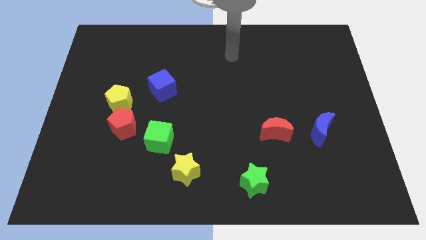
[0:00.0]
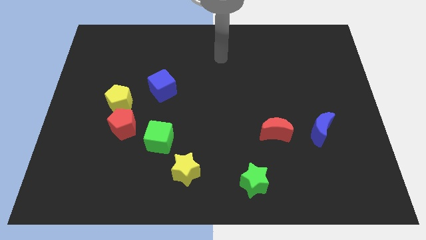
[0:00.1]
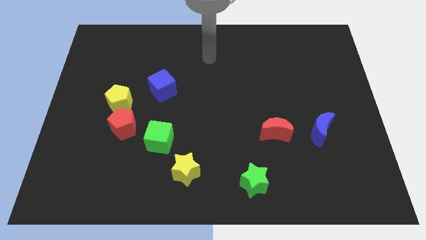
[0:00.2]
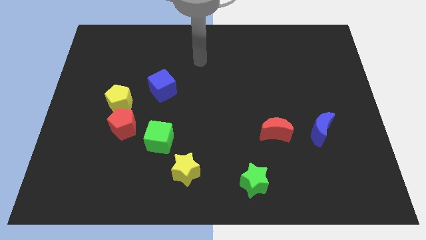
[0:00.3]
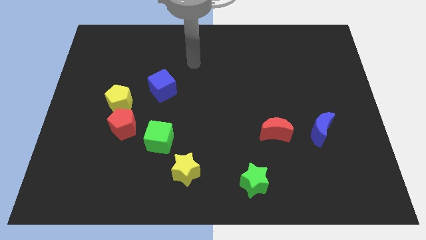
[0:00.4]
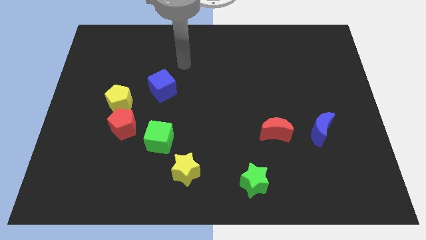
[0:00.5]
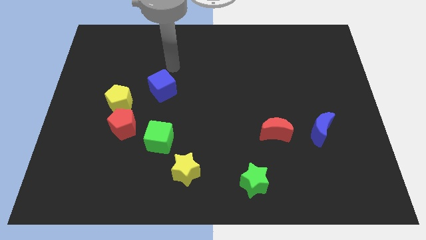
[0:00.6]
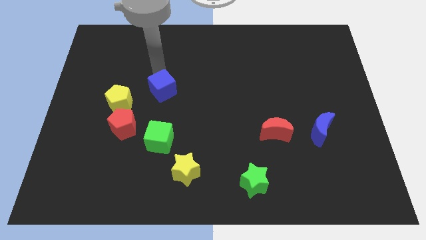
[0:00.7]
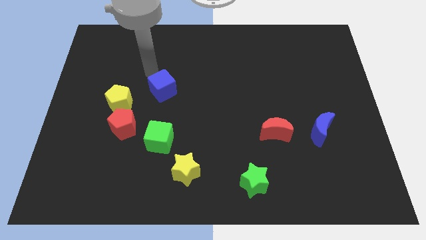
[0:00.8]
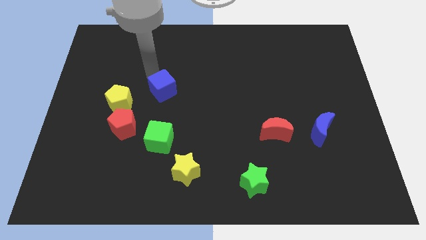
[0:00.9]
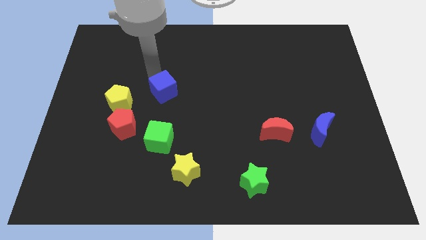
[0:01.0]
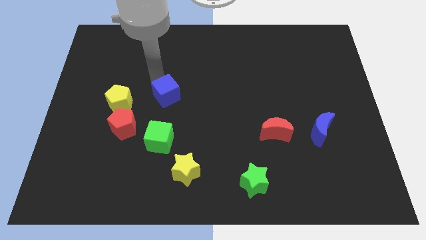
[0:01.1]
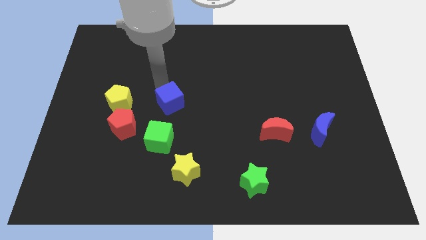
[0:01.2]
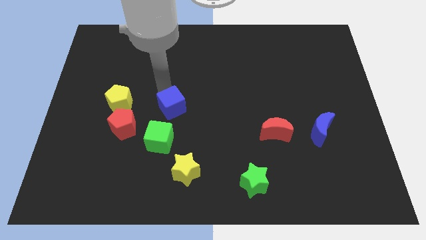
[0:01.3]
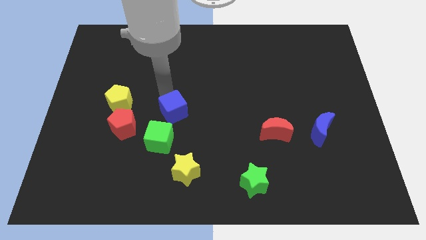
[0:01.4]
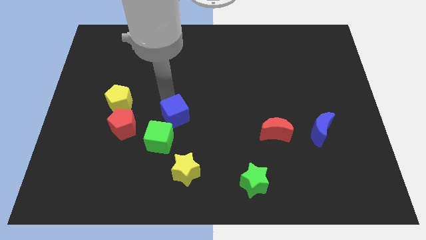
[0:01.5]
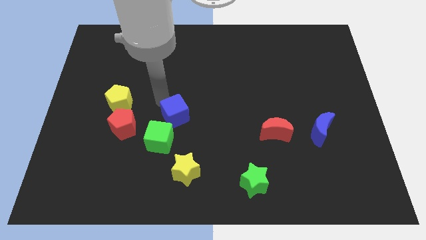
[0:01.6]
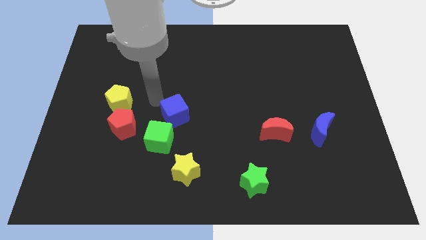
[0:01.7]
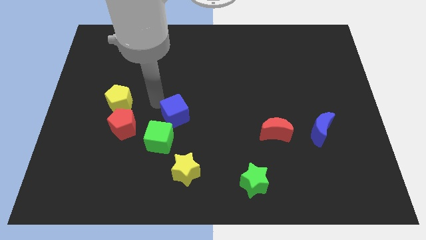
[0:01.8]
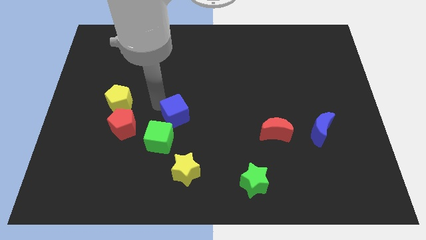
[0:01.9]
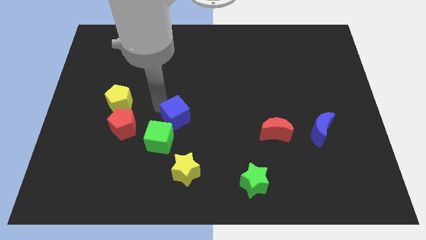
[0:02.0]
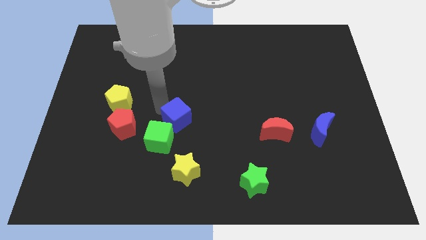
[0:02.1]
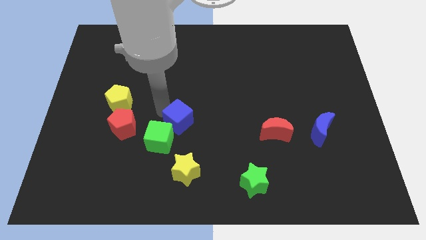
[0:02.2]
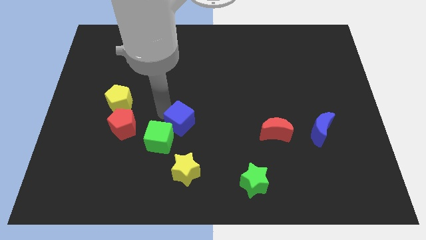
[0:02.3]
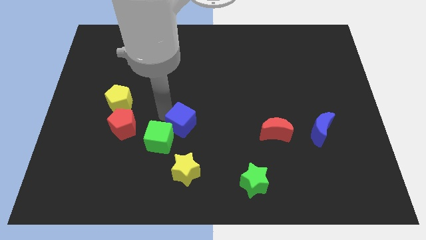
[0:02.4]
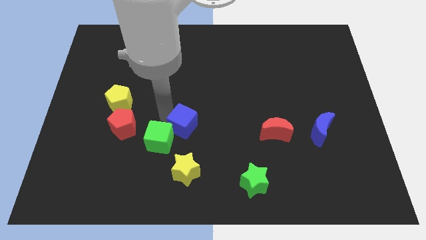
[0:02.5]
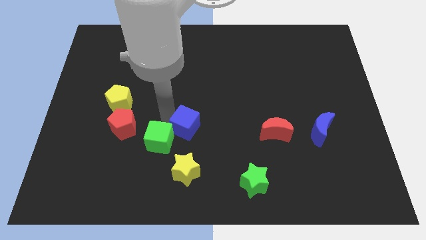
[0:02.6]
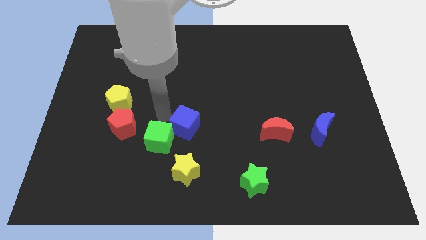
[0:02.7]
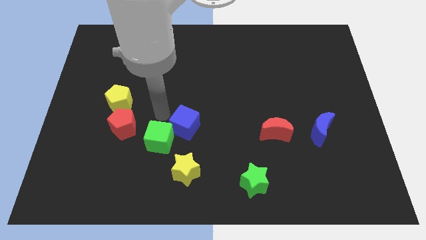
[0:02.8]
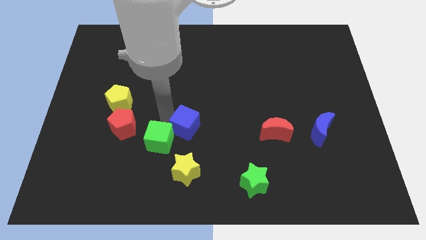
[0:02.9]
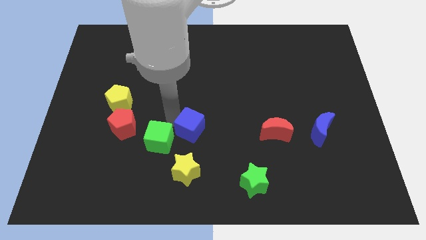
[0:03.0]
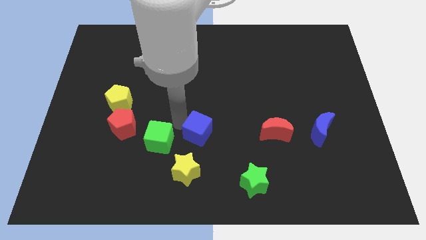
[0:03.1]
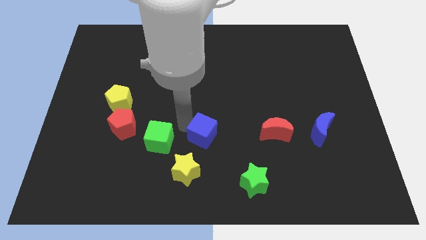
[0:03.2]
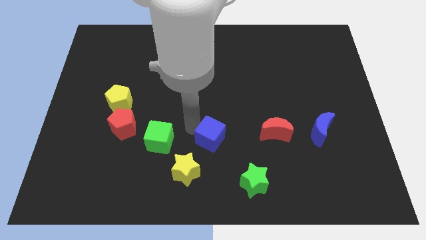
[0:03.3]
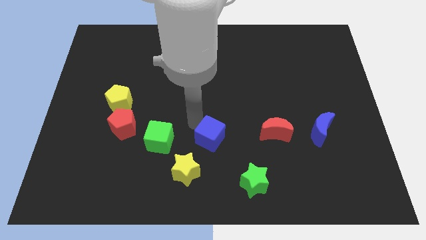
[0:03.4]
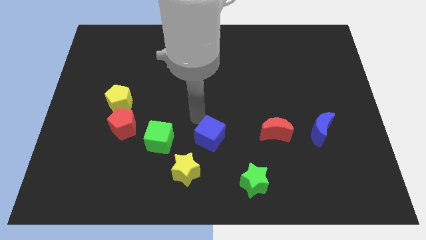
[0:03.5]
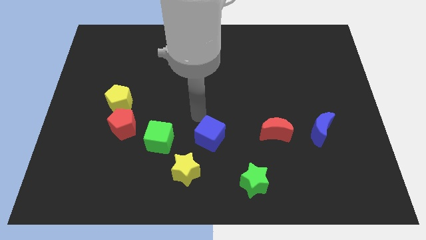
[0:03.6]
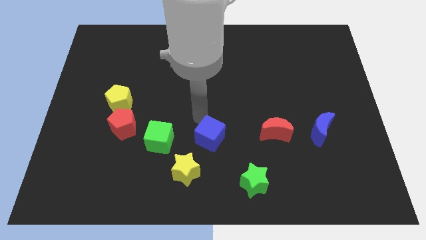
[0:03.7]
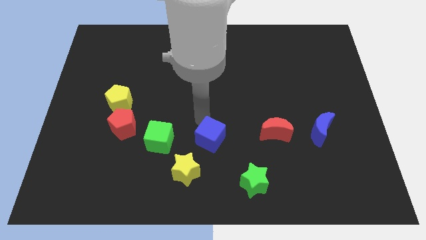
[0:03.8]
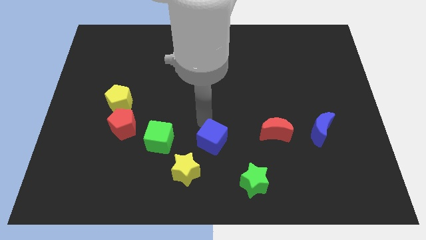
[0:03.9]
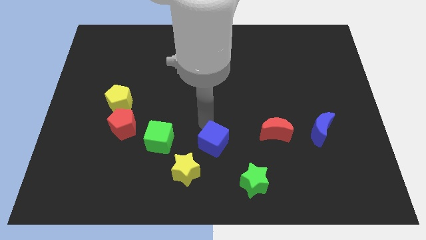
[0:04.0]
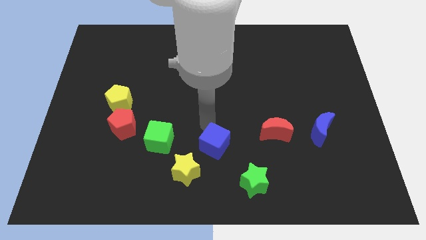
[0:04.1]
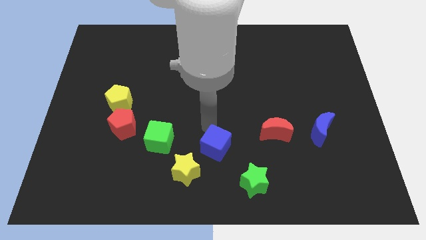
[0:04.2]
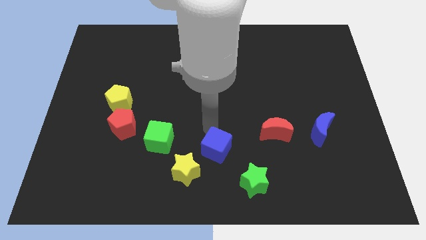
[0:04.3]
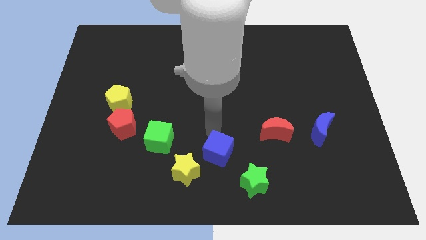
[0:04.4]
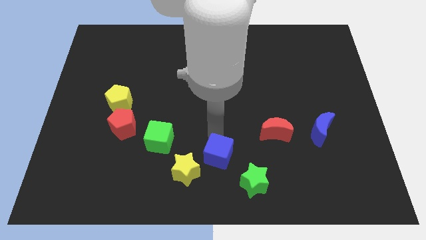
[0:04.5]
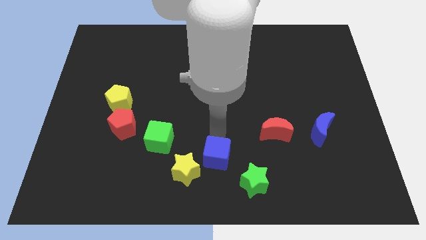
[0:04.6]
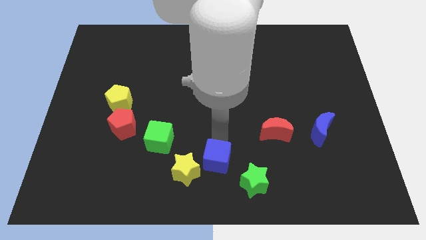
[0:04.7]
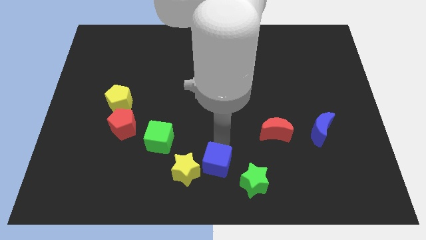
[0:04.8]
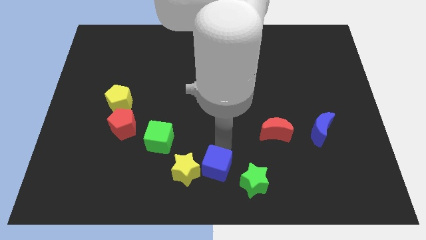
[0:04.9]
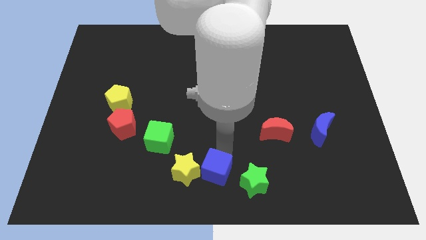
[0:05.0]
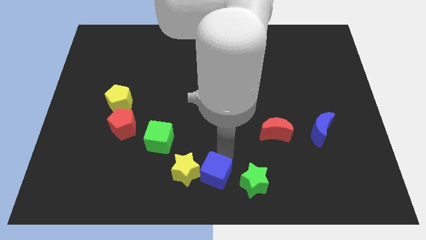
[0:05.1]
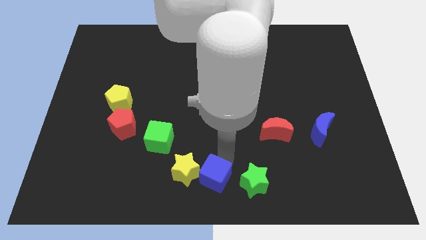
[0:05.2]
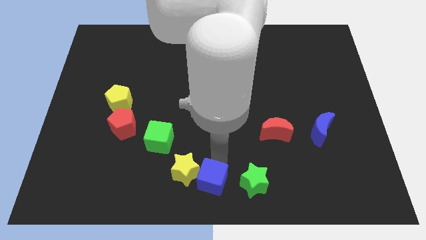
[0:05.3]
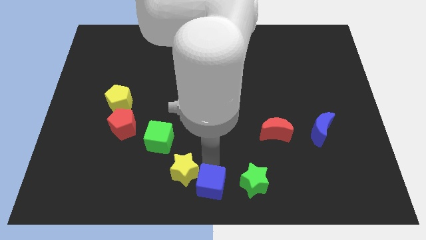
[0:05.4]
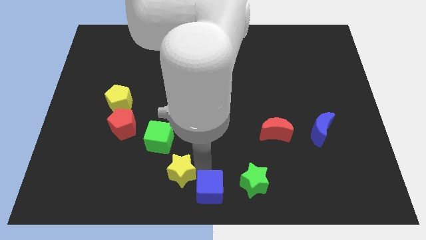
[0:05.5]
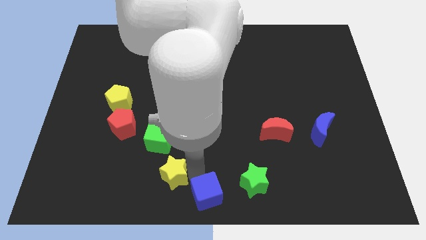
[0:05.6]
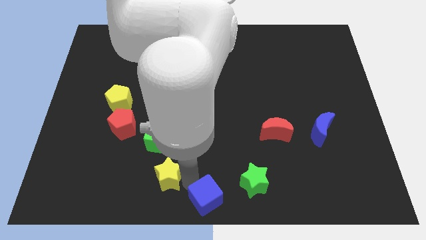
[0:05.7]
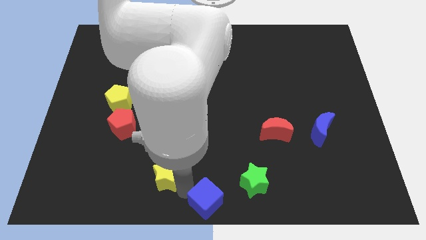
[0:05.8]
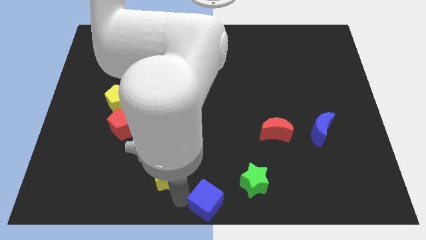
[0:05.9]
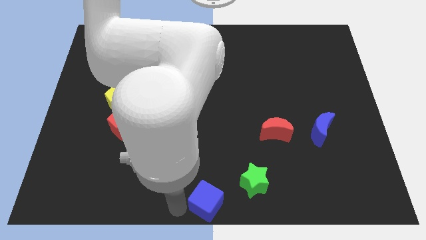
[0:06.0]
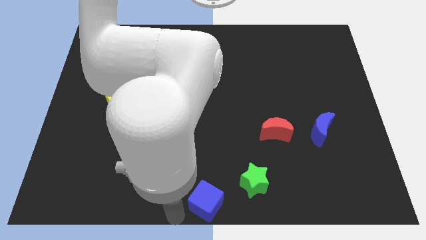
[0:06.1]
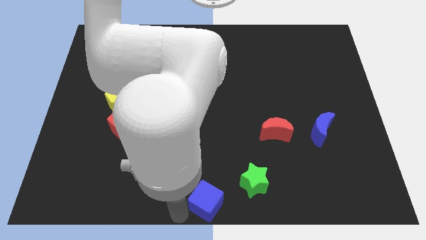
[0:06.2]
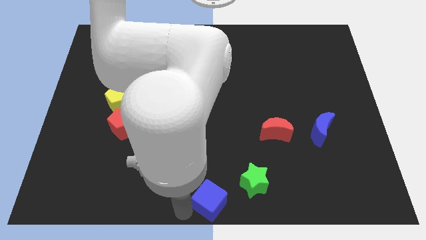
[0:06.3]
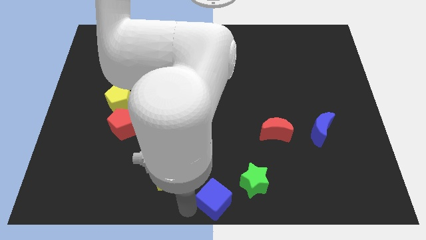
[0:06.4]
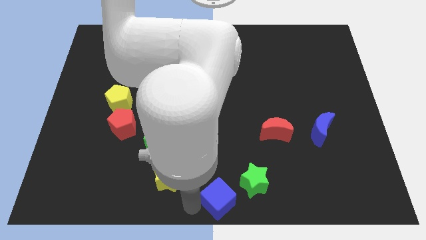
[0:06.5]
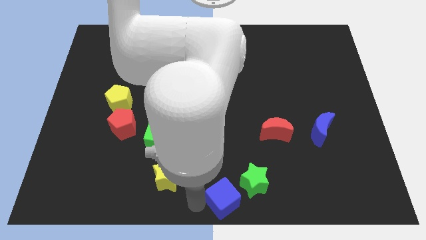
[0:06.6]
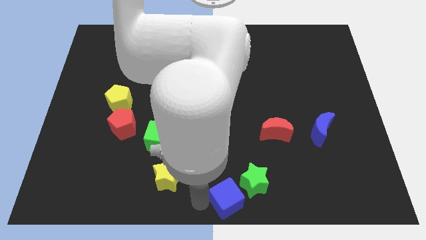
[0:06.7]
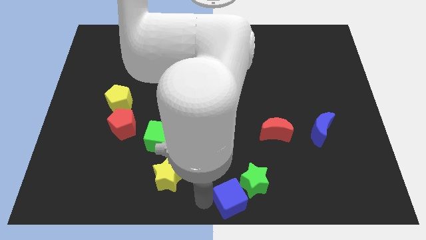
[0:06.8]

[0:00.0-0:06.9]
slide the blue cube towards the green star
